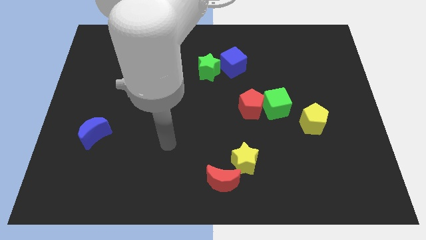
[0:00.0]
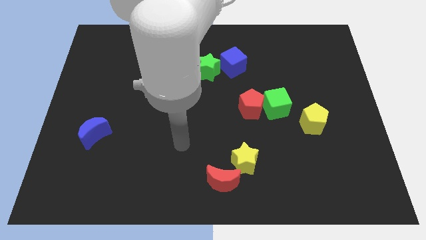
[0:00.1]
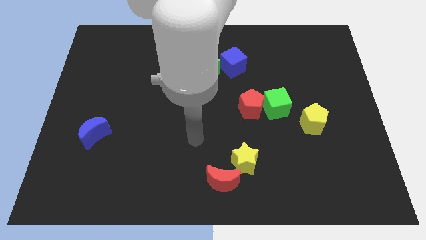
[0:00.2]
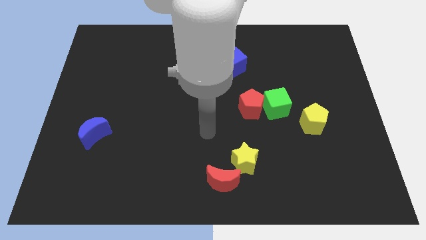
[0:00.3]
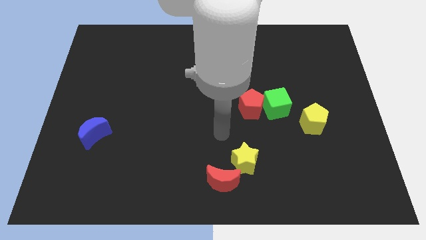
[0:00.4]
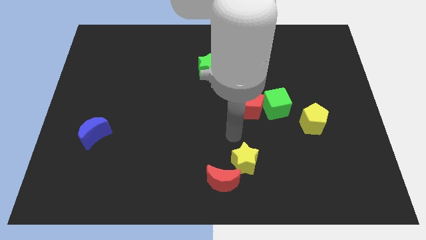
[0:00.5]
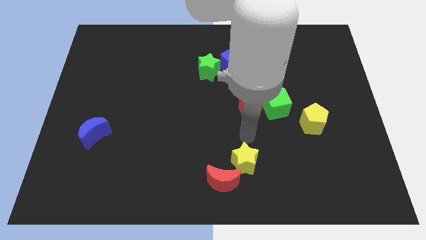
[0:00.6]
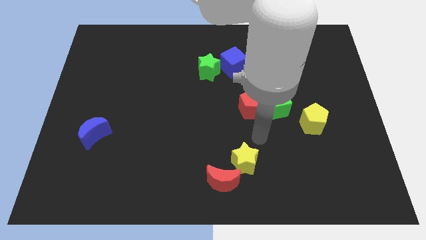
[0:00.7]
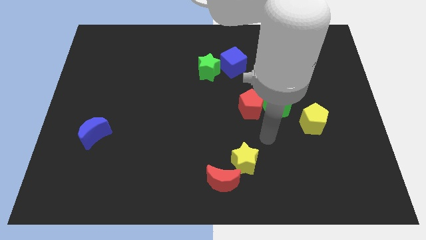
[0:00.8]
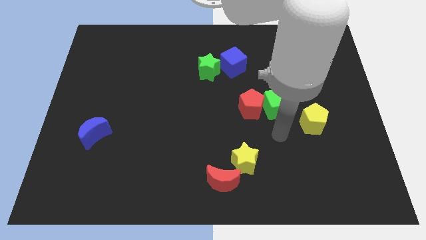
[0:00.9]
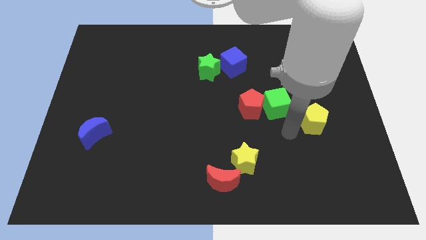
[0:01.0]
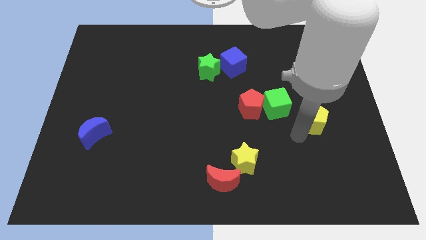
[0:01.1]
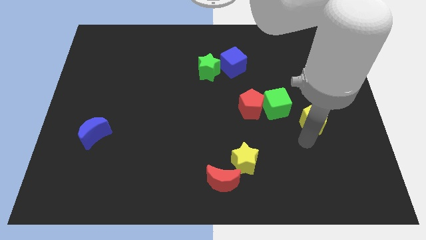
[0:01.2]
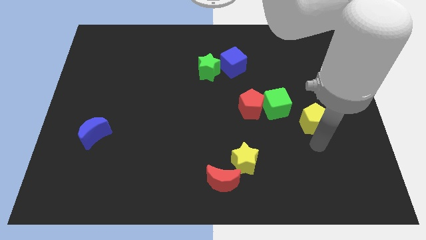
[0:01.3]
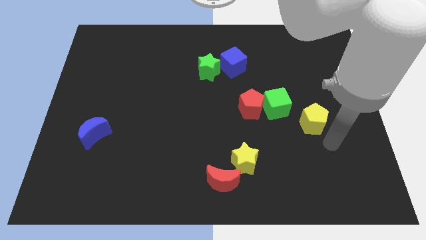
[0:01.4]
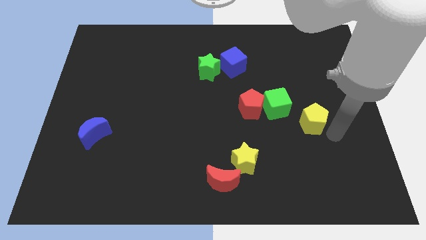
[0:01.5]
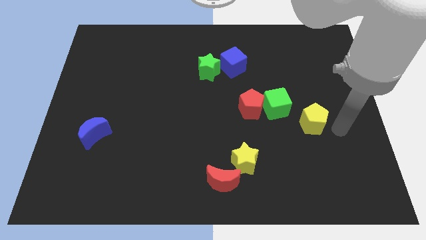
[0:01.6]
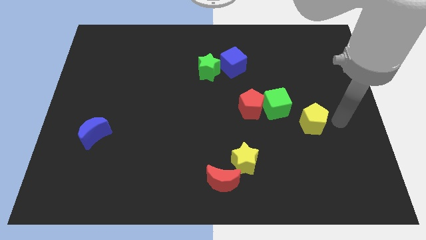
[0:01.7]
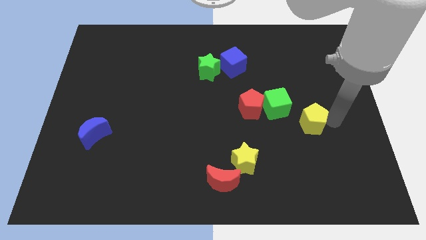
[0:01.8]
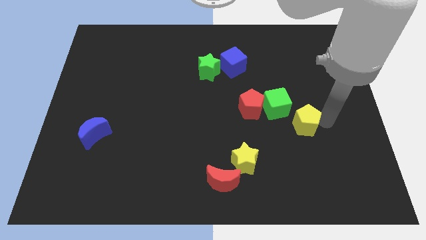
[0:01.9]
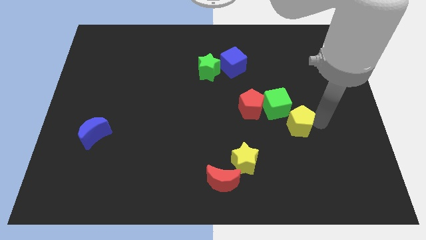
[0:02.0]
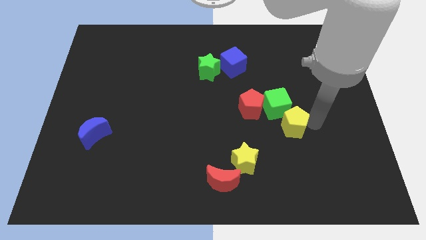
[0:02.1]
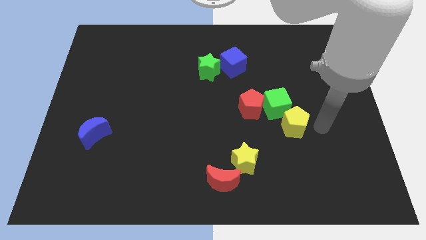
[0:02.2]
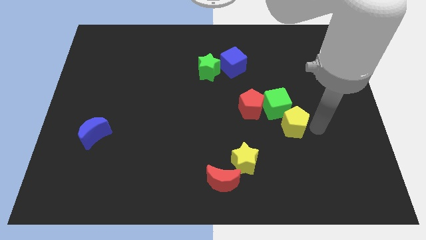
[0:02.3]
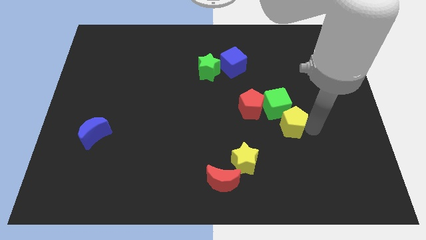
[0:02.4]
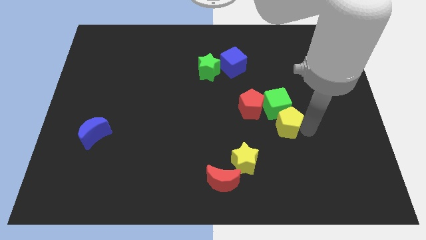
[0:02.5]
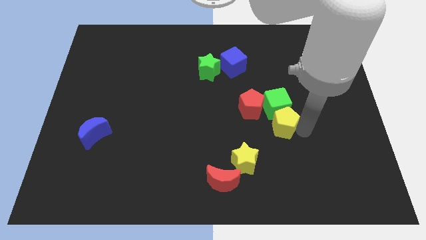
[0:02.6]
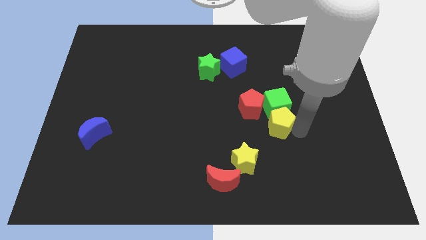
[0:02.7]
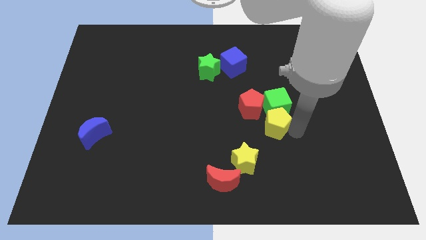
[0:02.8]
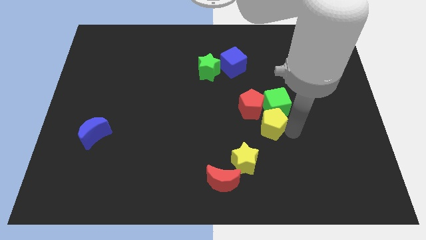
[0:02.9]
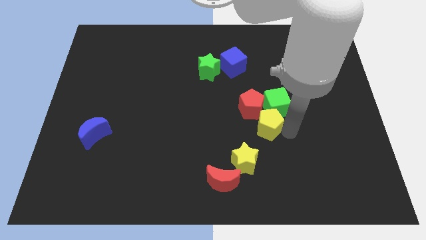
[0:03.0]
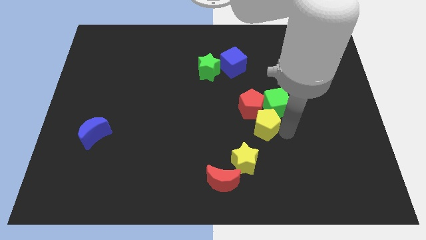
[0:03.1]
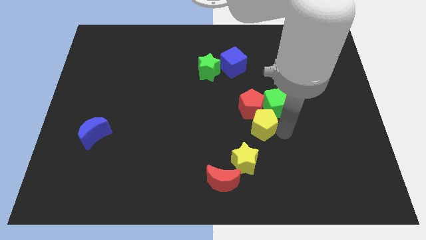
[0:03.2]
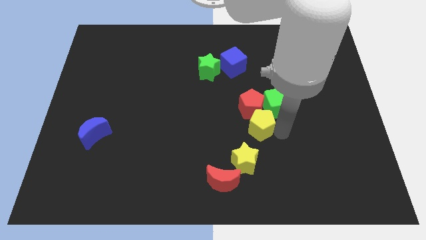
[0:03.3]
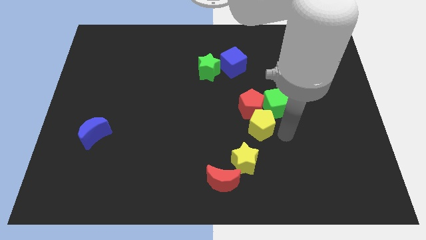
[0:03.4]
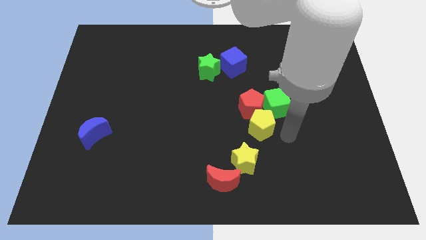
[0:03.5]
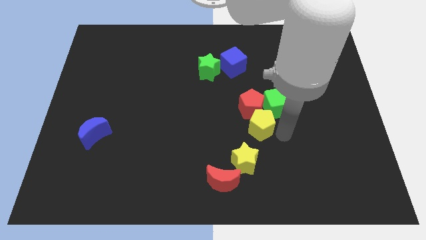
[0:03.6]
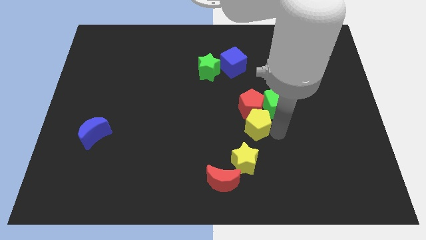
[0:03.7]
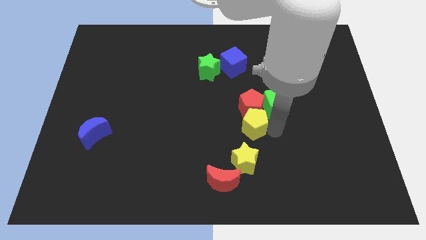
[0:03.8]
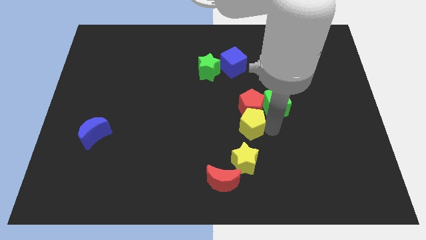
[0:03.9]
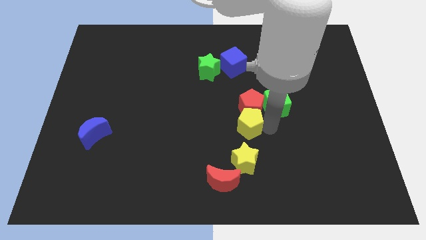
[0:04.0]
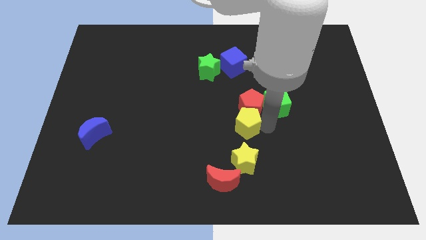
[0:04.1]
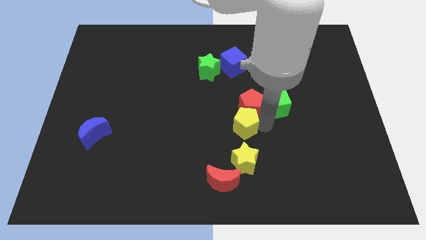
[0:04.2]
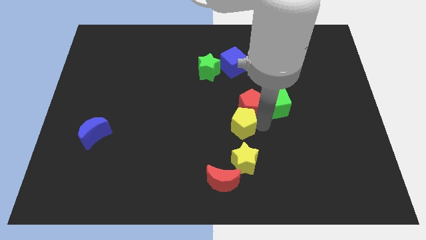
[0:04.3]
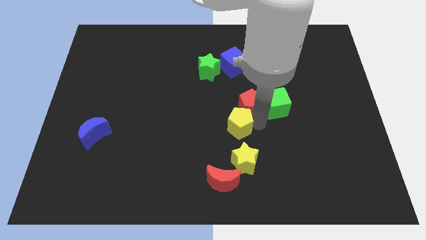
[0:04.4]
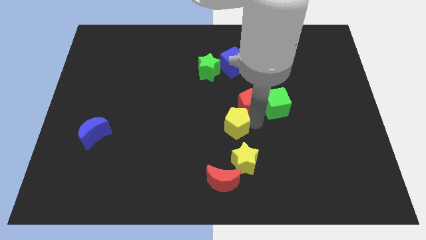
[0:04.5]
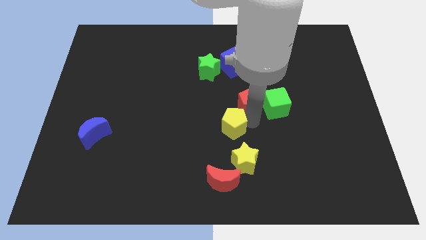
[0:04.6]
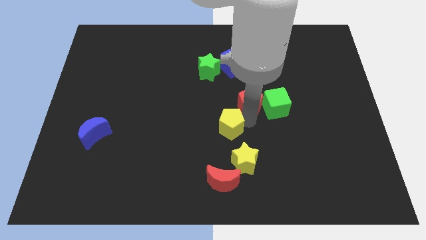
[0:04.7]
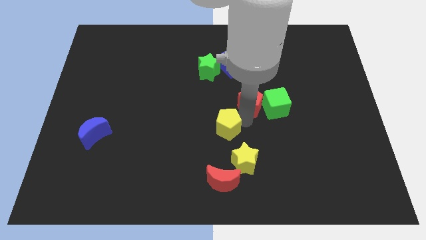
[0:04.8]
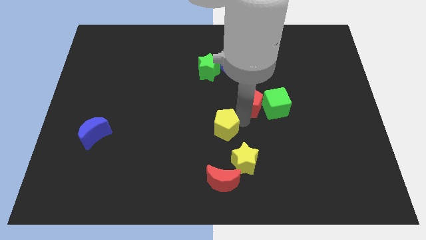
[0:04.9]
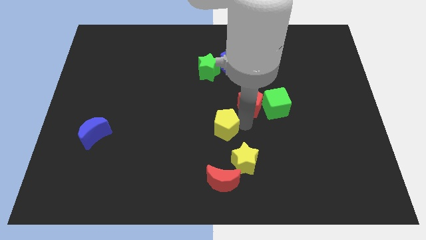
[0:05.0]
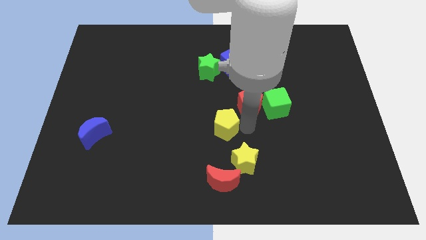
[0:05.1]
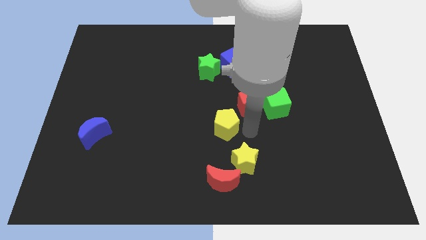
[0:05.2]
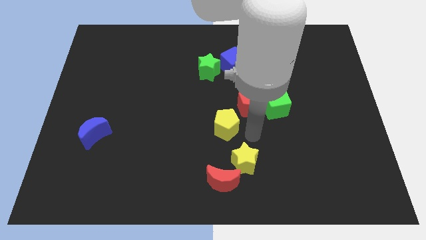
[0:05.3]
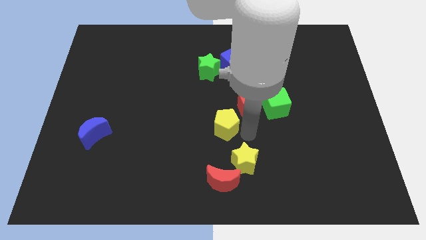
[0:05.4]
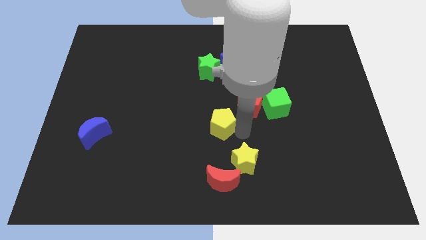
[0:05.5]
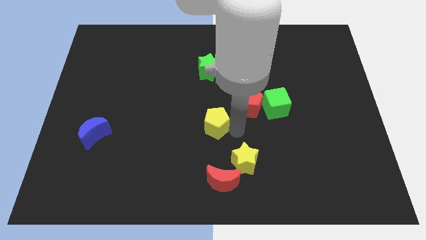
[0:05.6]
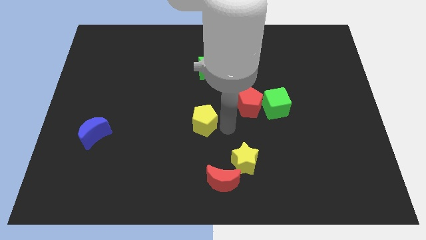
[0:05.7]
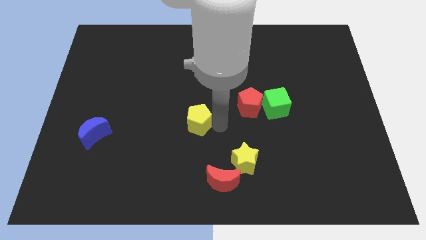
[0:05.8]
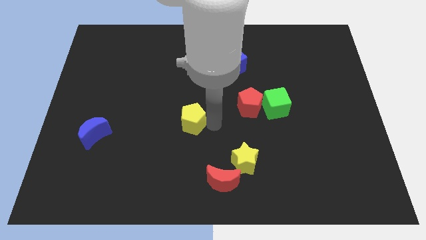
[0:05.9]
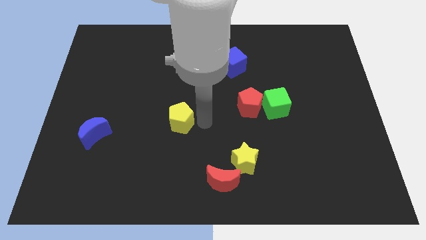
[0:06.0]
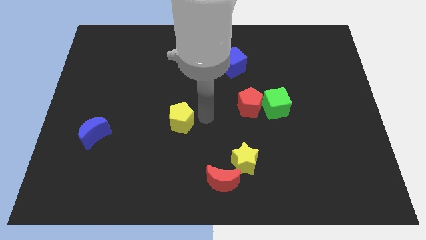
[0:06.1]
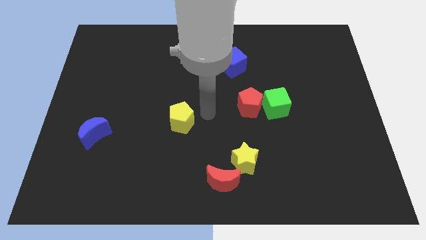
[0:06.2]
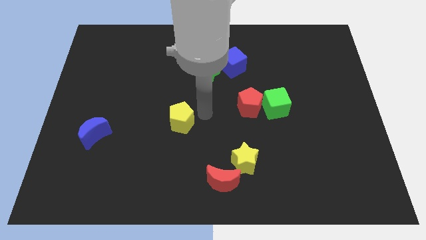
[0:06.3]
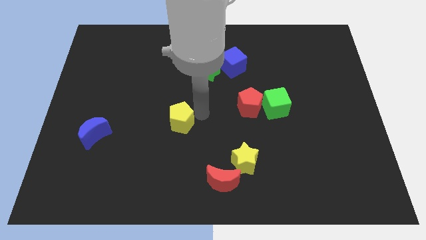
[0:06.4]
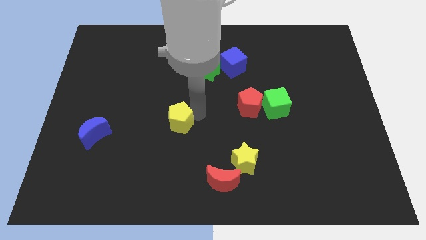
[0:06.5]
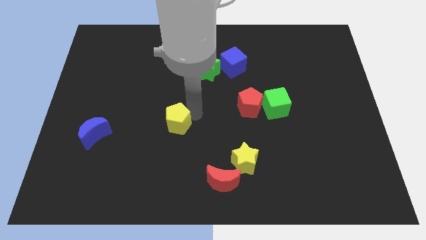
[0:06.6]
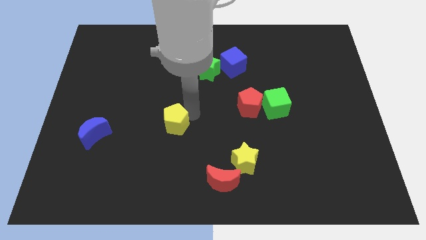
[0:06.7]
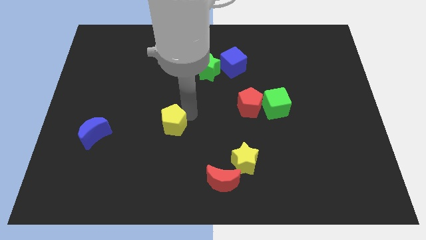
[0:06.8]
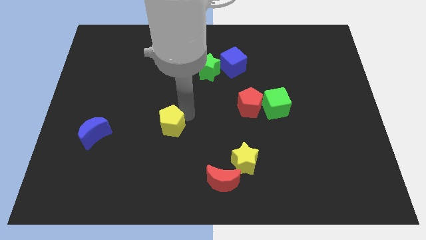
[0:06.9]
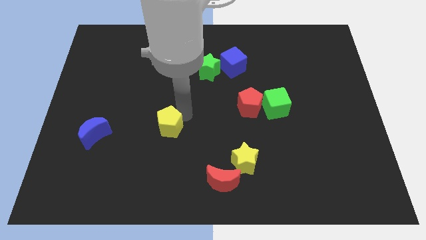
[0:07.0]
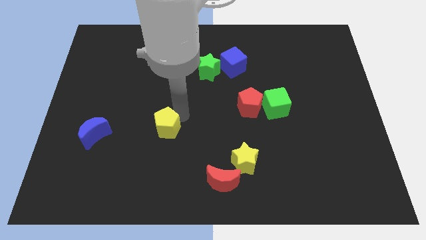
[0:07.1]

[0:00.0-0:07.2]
move the yellow pentagon to the right of the blue moon

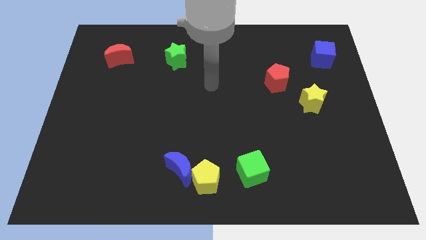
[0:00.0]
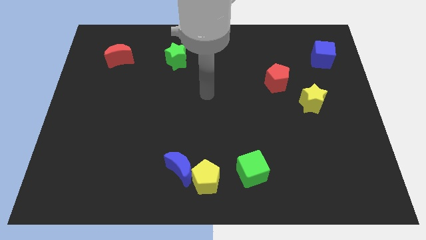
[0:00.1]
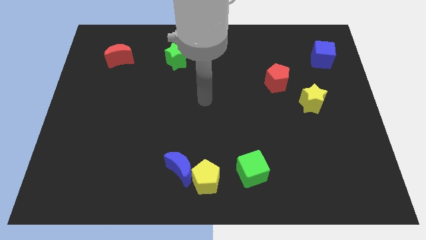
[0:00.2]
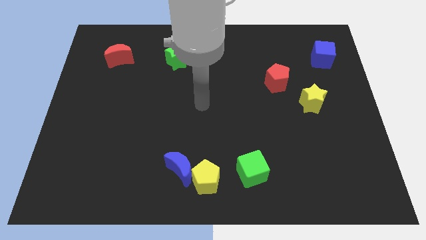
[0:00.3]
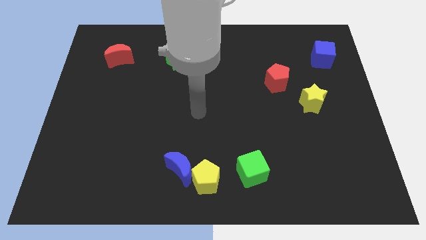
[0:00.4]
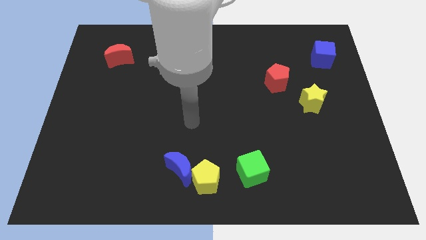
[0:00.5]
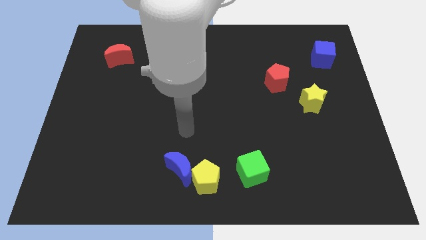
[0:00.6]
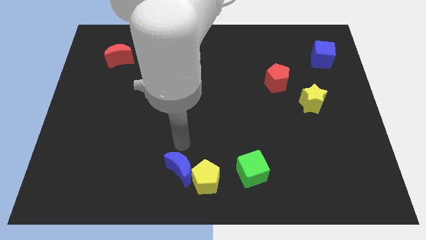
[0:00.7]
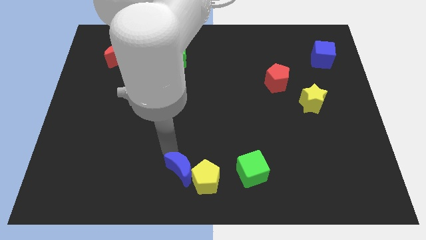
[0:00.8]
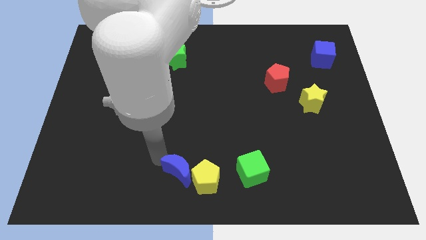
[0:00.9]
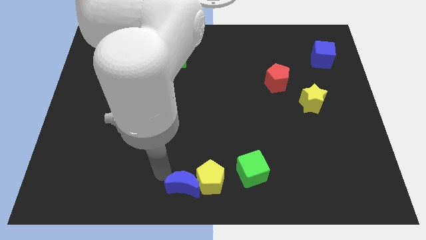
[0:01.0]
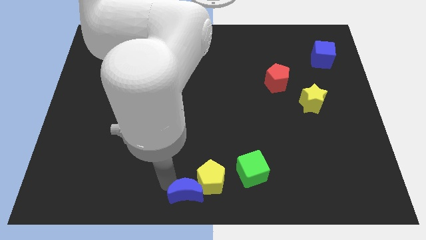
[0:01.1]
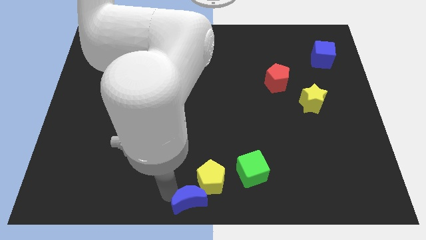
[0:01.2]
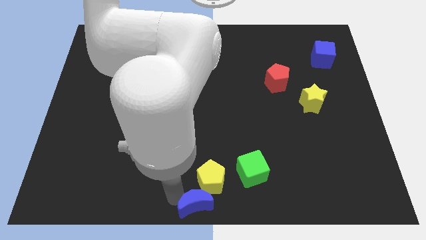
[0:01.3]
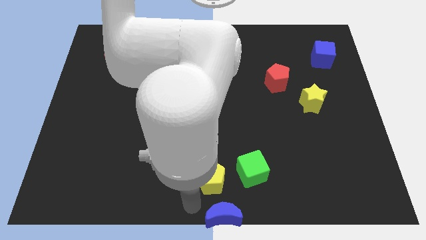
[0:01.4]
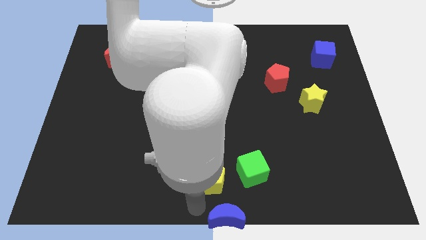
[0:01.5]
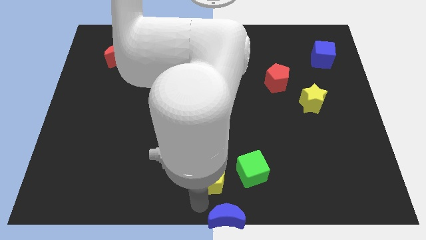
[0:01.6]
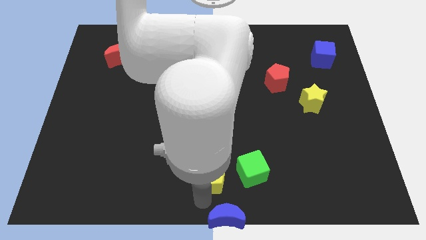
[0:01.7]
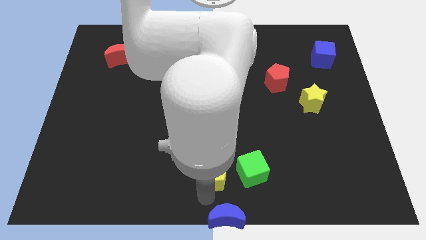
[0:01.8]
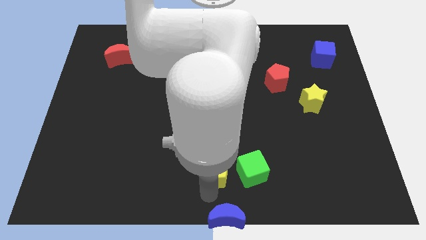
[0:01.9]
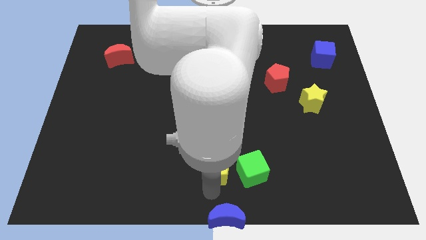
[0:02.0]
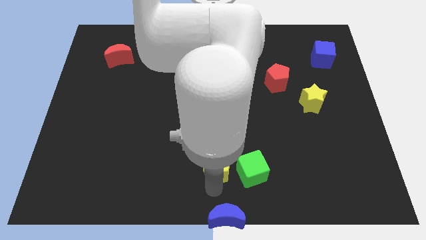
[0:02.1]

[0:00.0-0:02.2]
push the yellow pentagon diagonally up and to the left of the green cube
